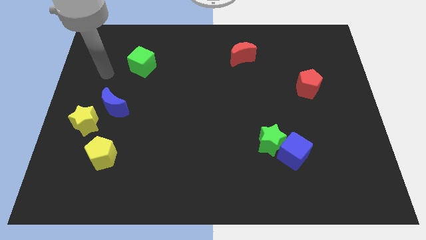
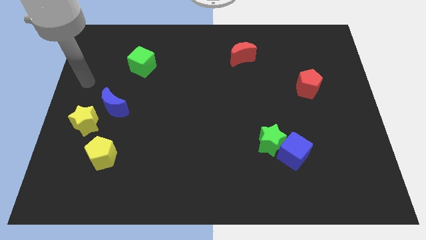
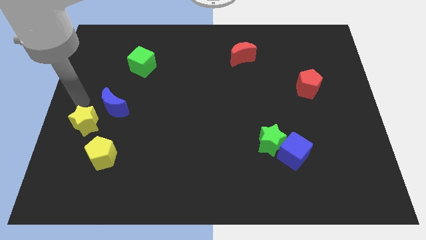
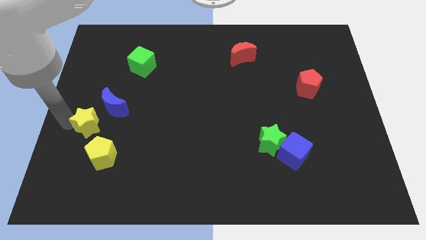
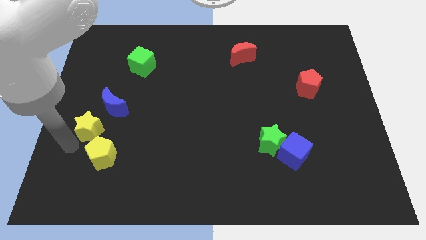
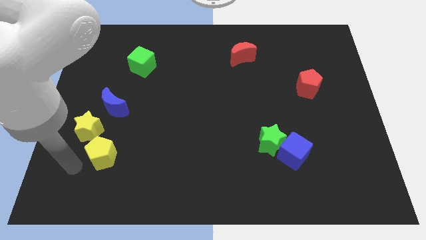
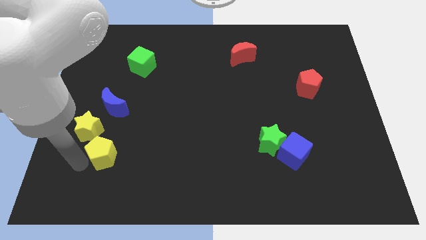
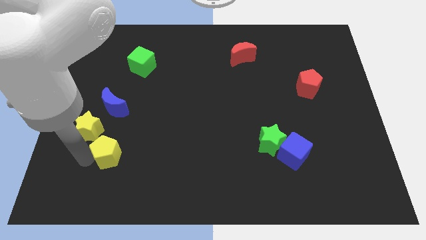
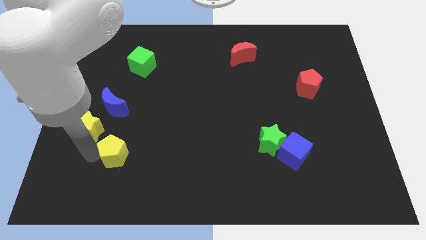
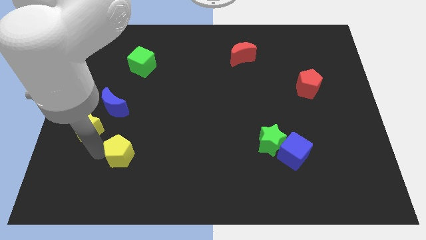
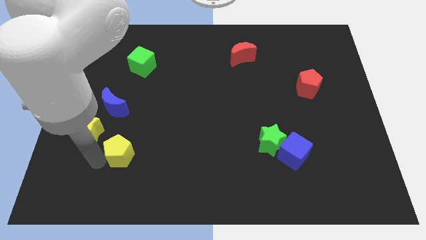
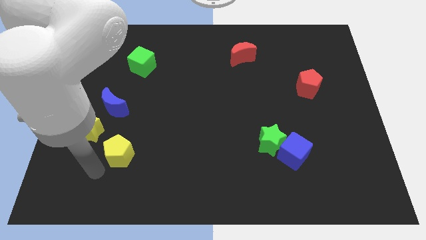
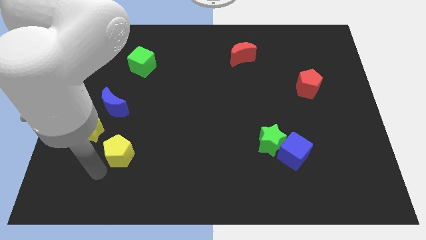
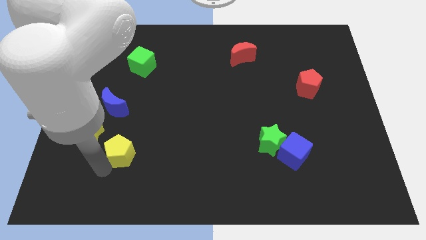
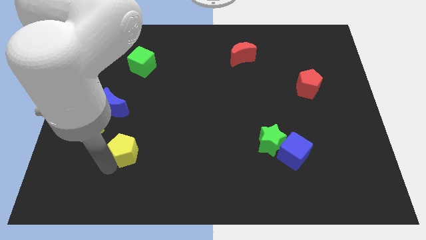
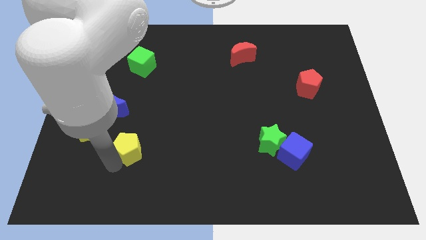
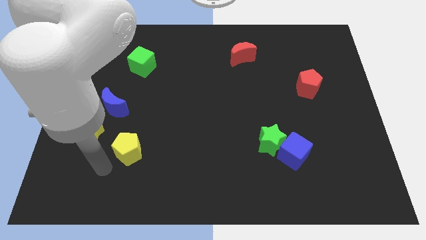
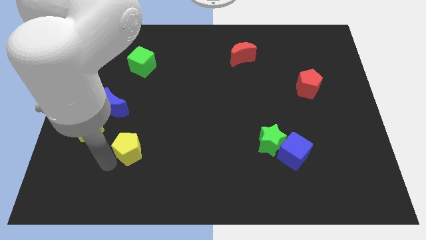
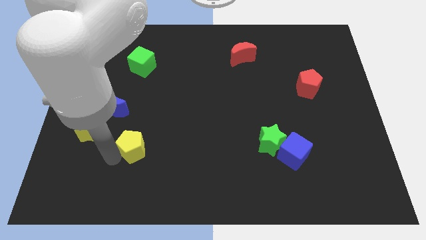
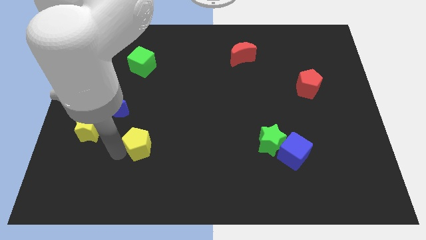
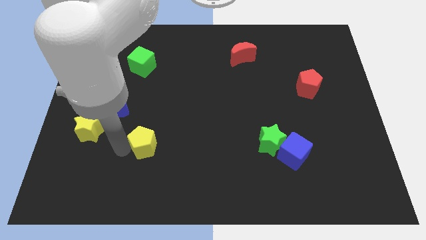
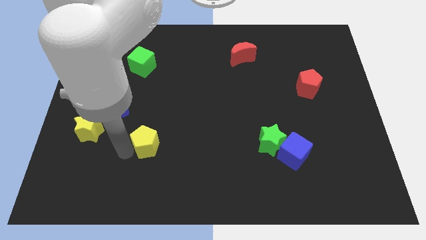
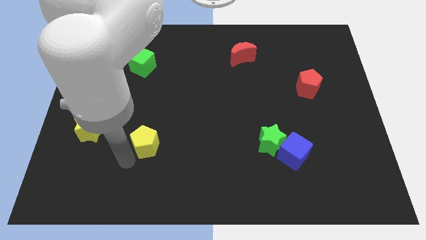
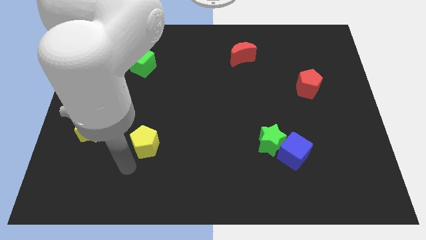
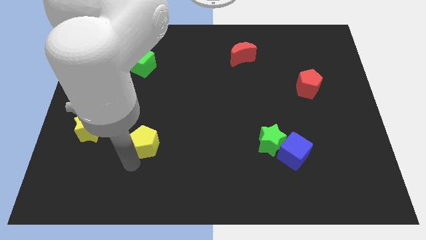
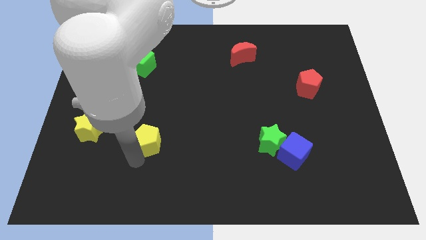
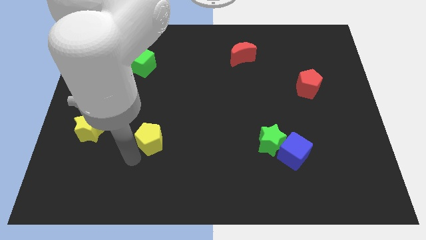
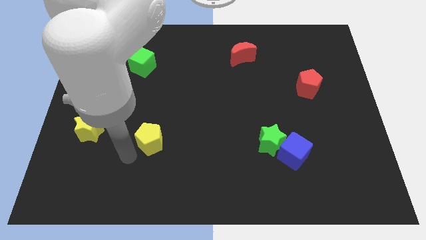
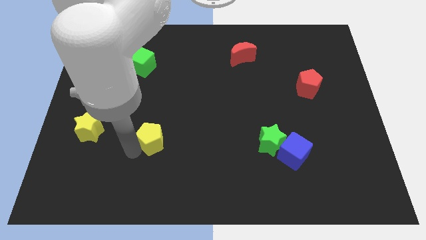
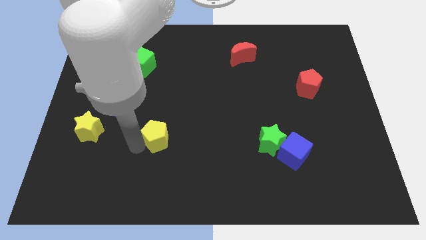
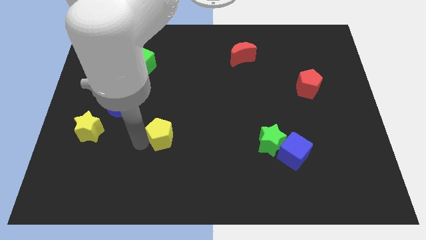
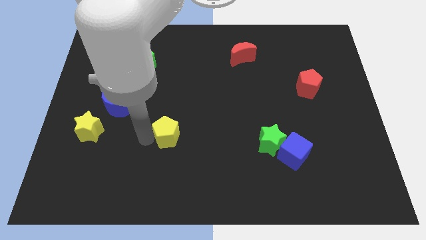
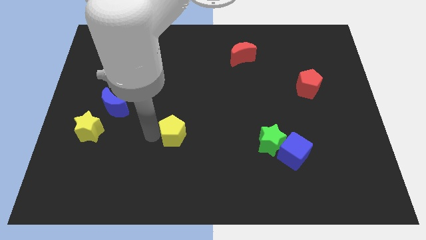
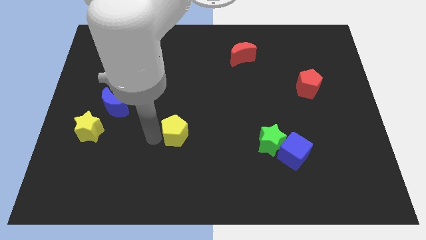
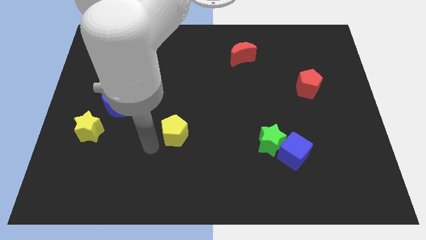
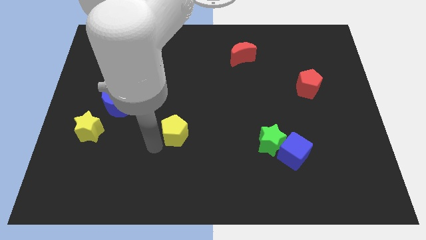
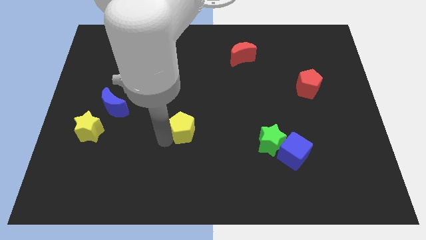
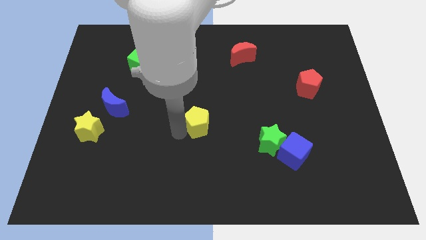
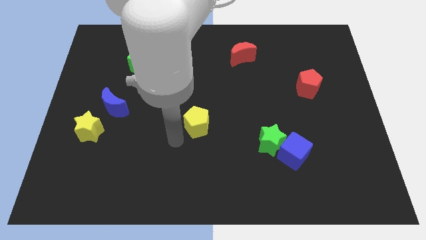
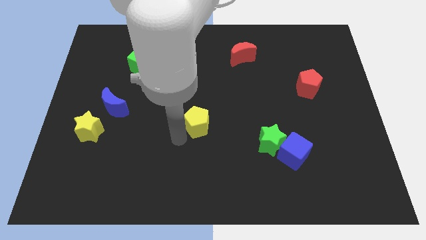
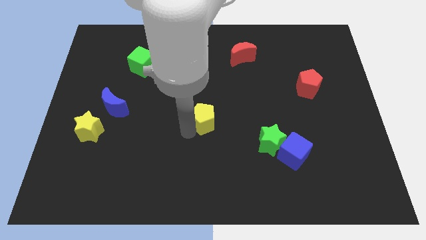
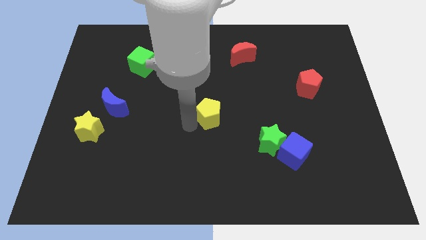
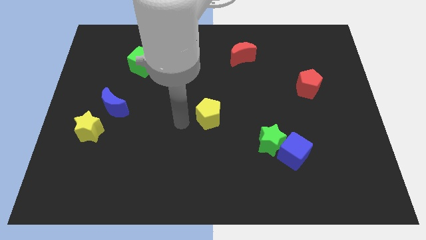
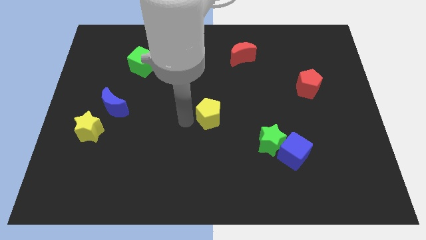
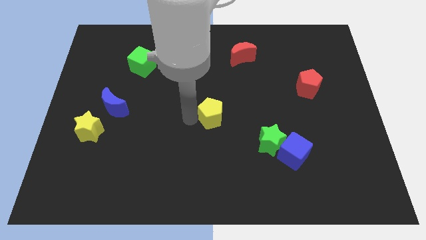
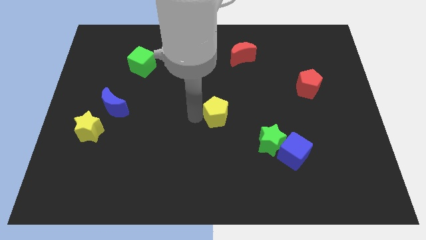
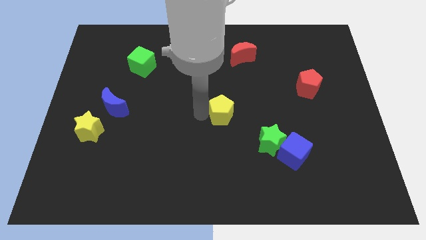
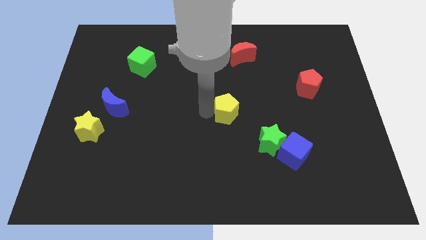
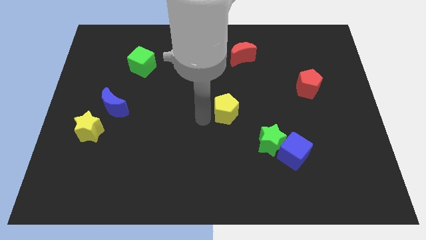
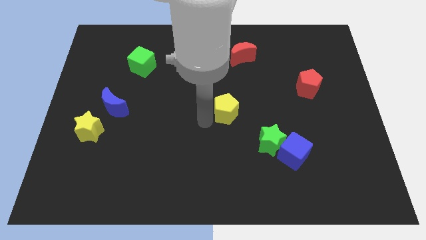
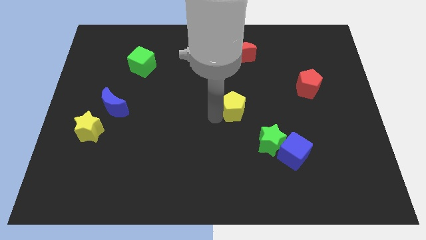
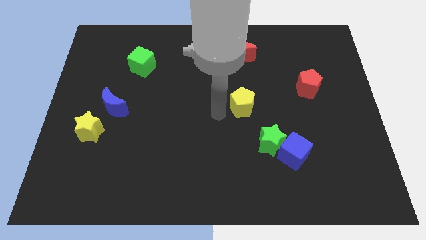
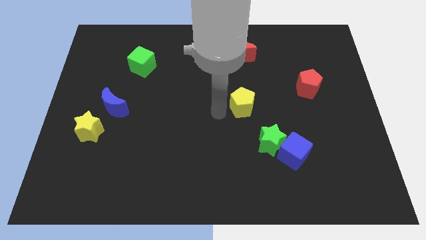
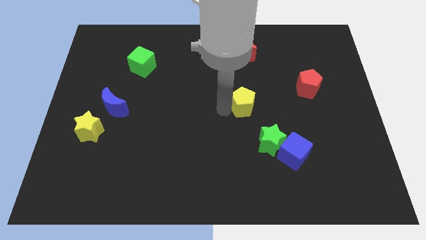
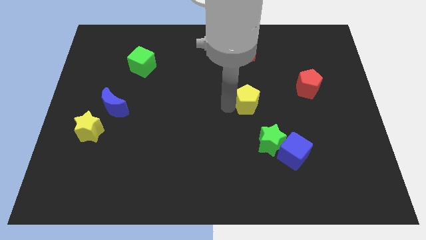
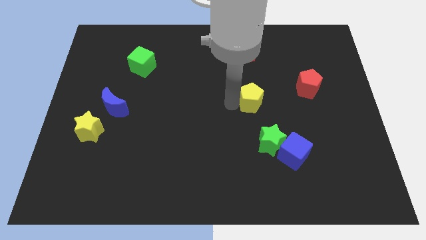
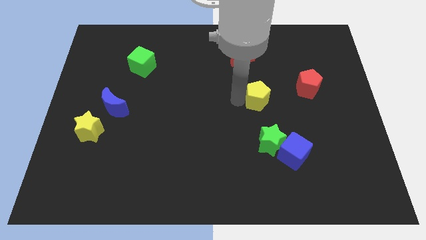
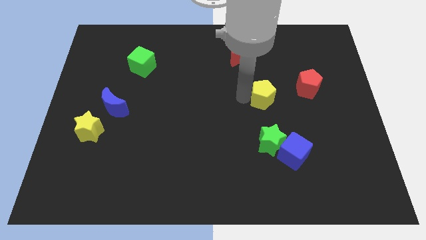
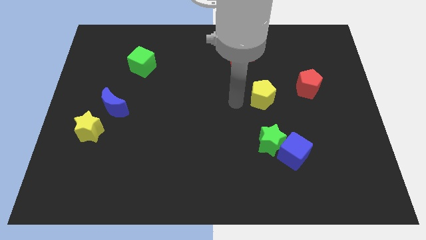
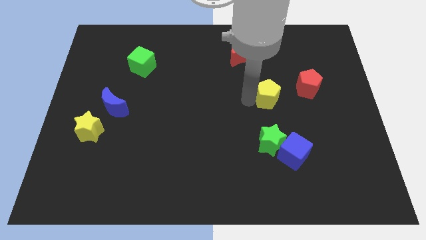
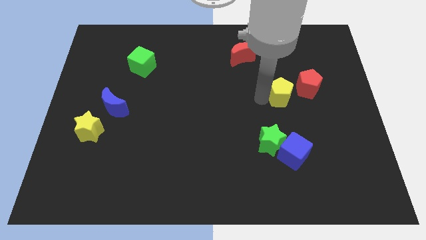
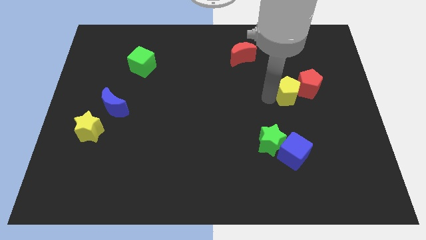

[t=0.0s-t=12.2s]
put the yellow pentagon to the red pentagon

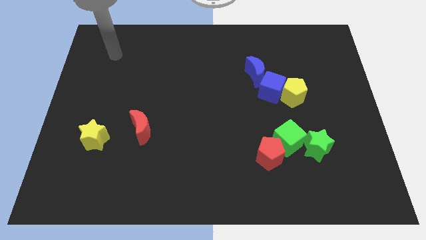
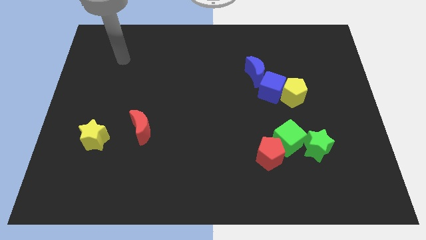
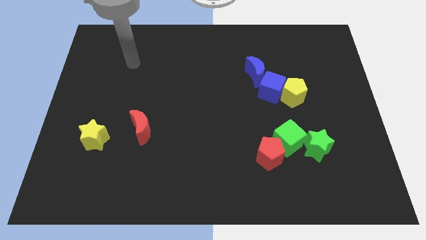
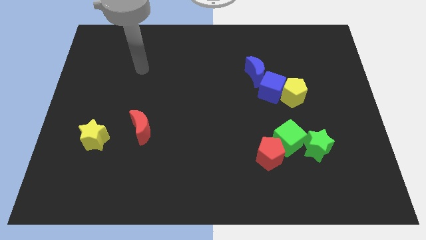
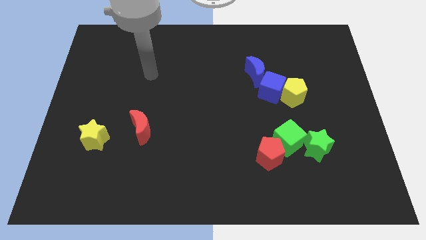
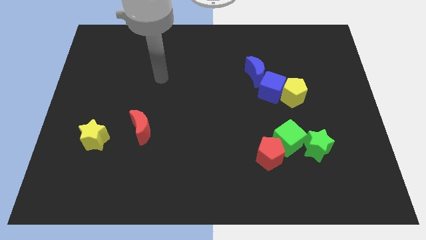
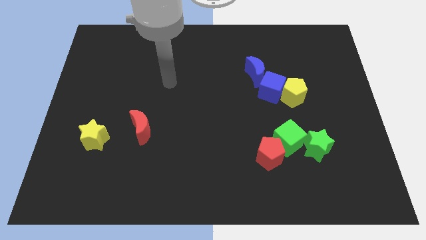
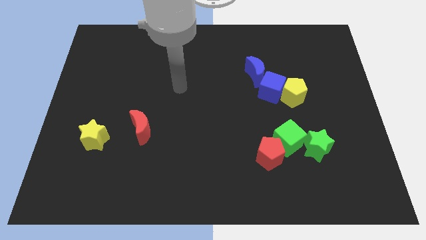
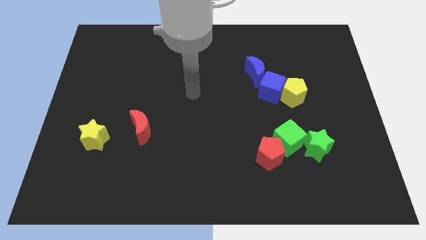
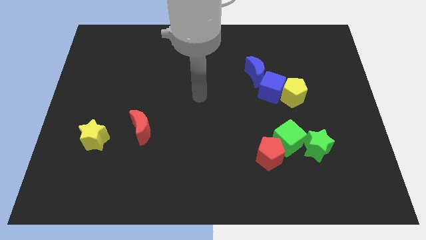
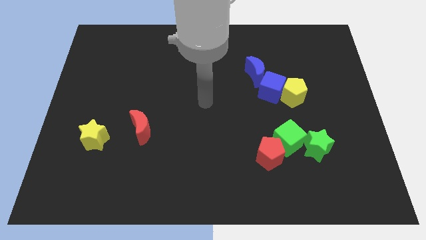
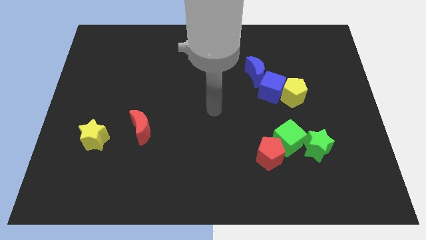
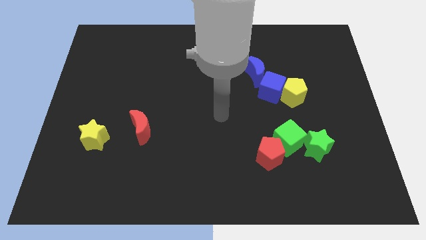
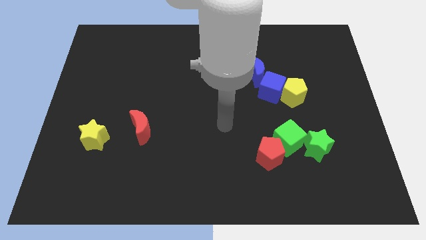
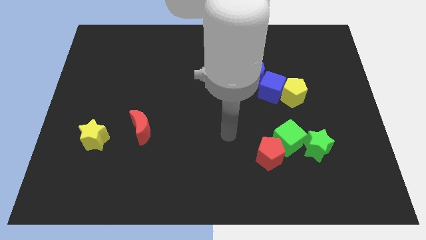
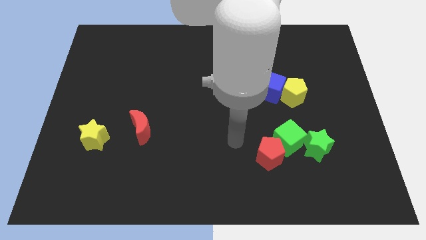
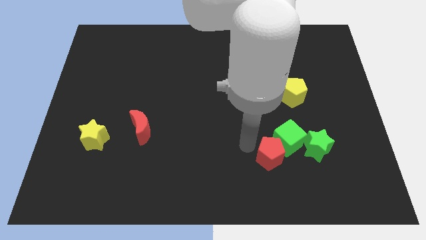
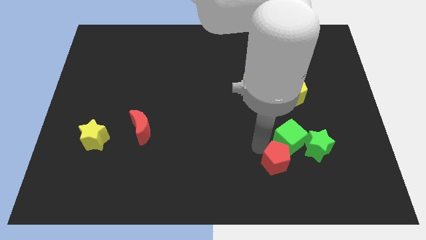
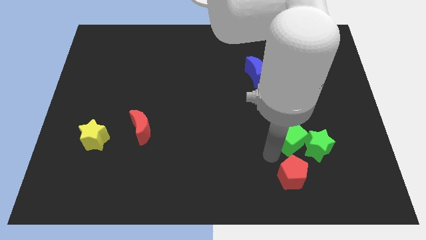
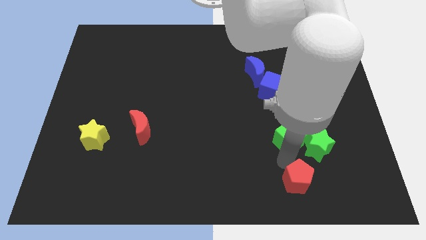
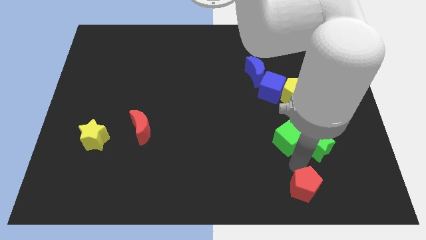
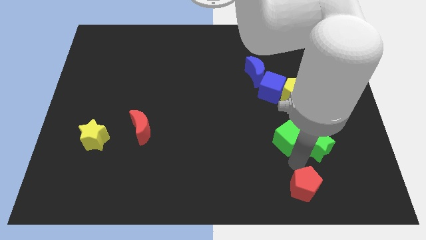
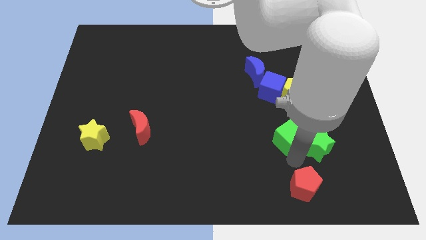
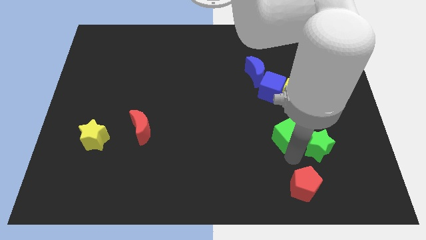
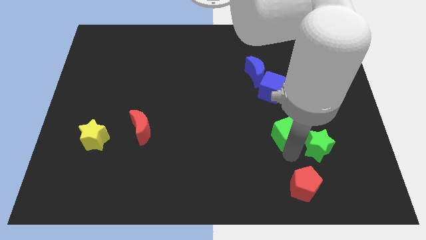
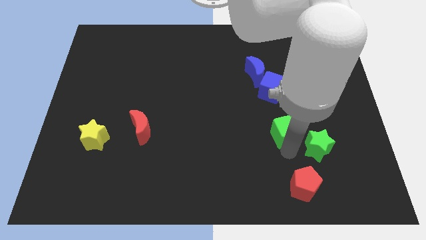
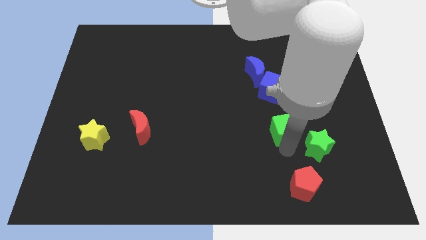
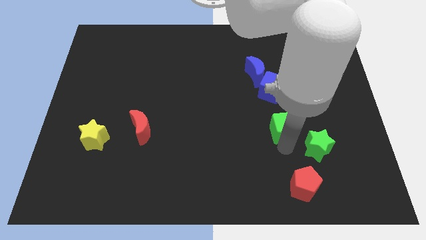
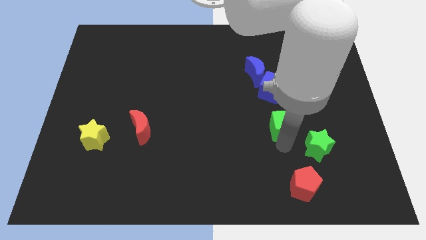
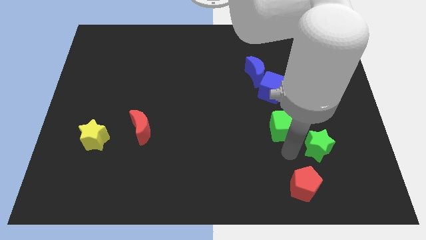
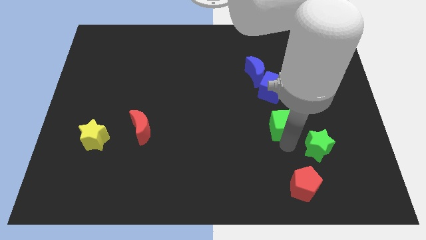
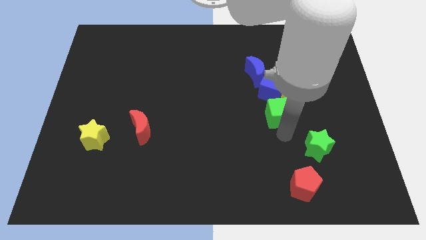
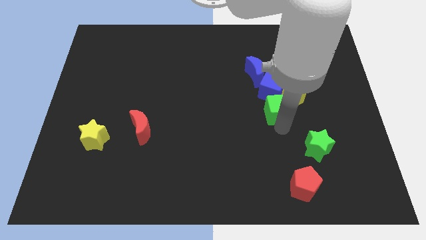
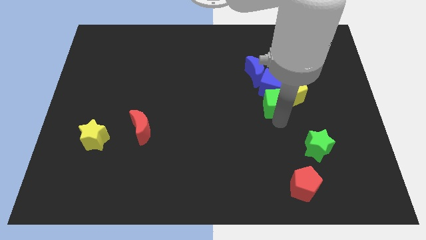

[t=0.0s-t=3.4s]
move the green cube close to the blue cube
